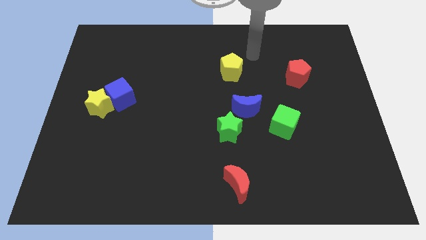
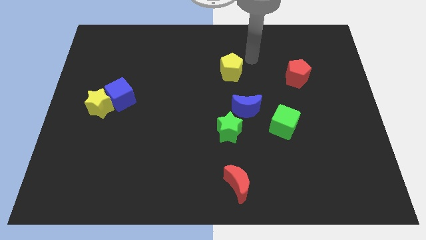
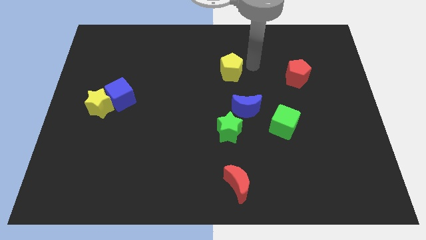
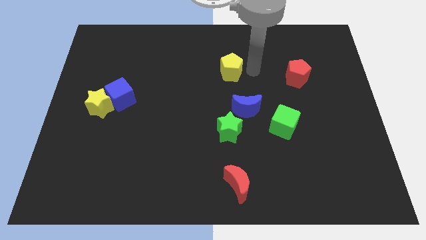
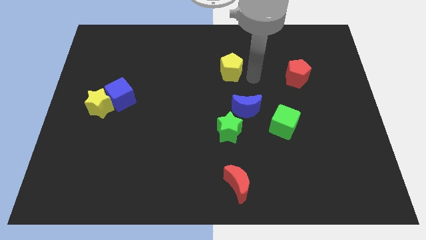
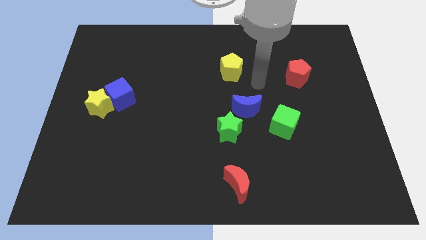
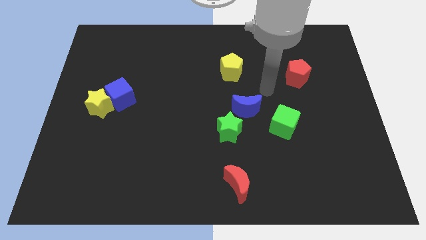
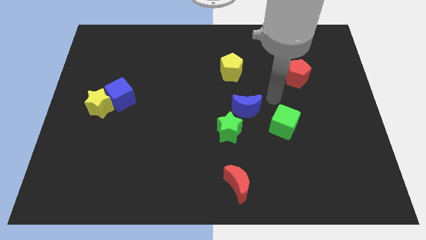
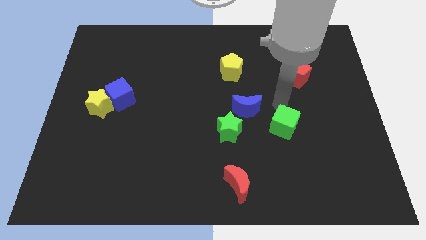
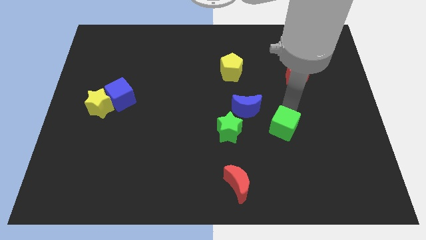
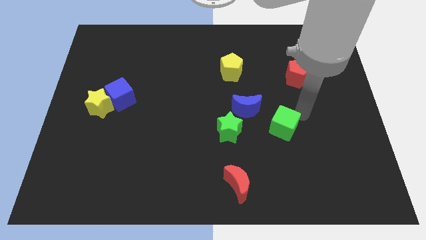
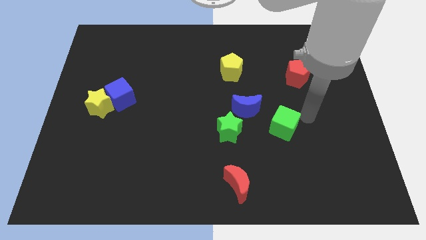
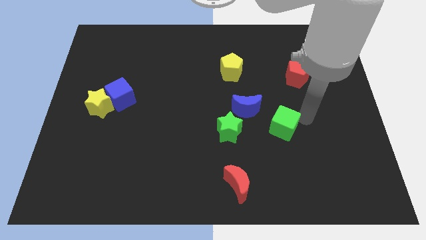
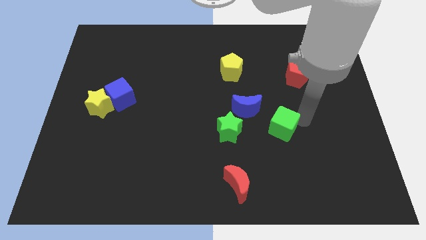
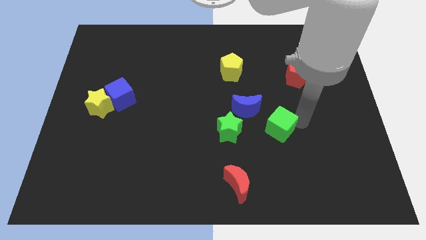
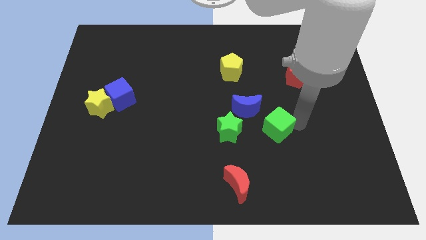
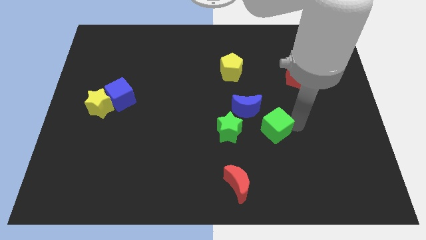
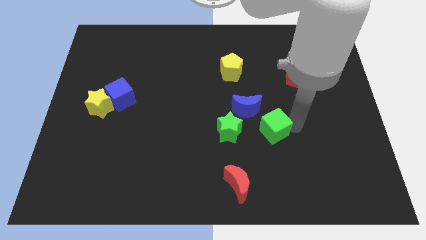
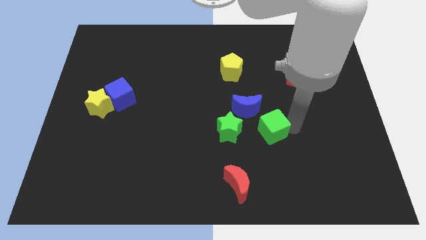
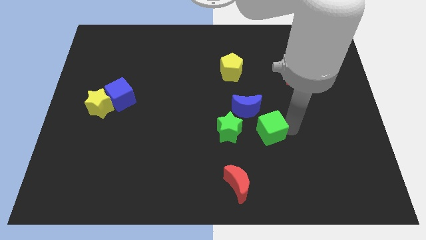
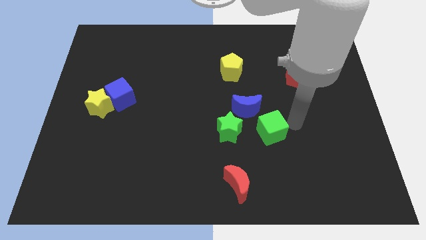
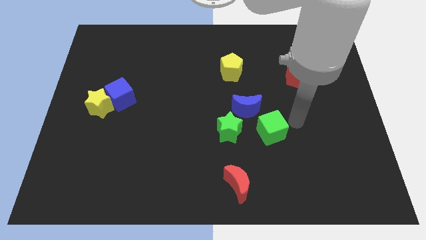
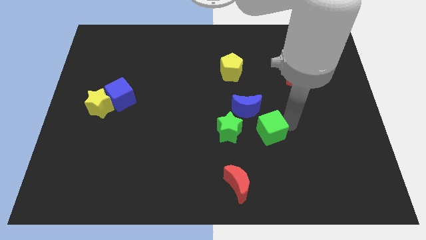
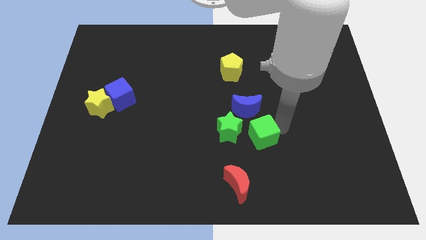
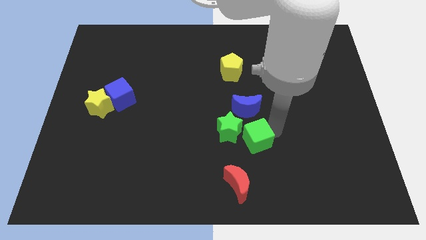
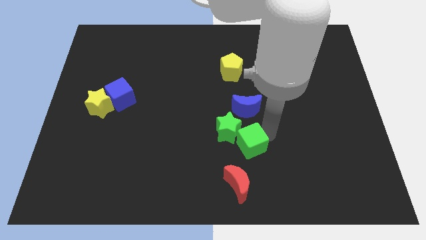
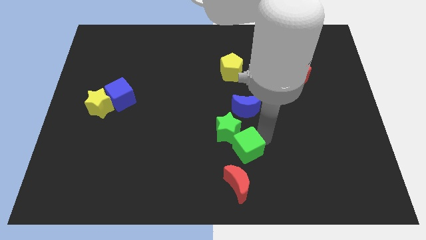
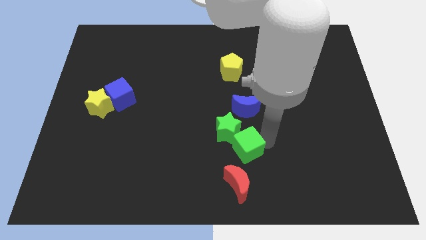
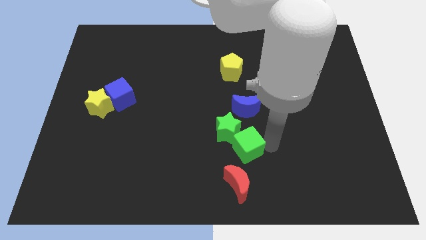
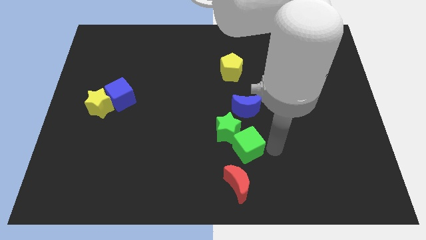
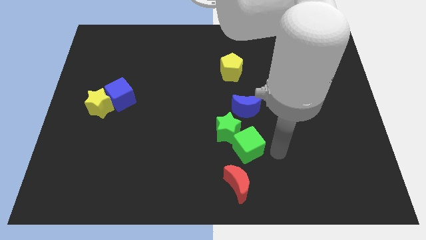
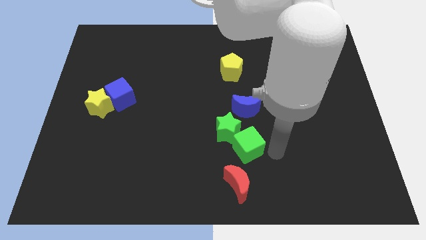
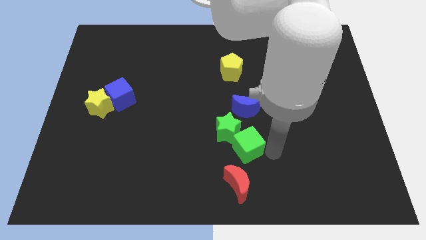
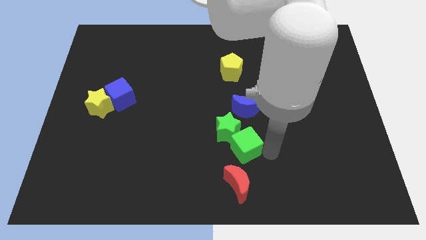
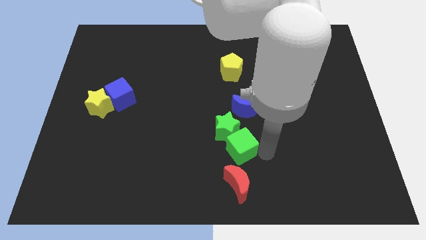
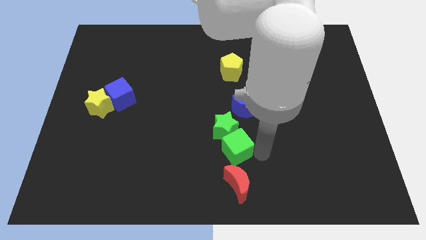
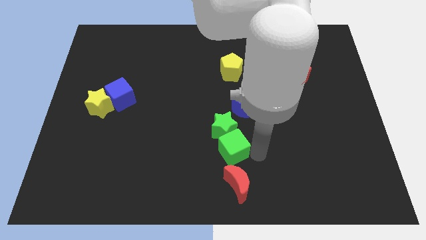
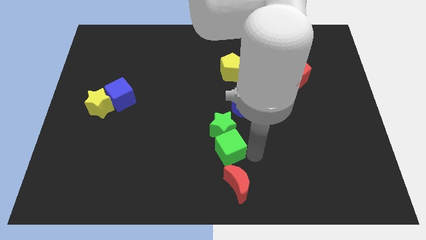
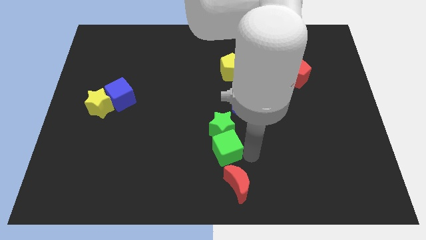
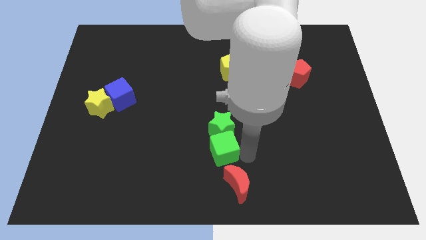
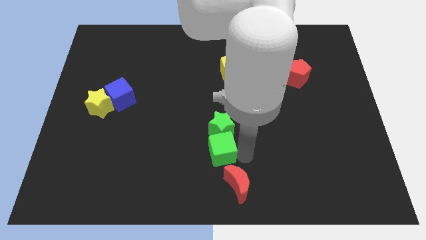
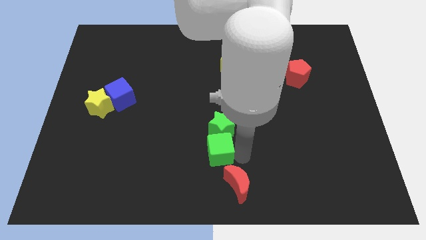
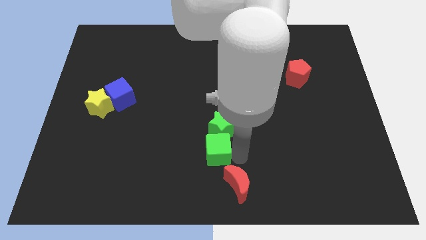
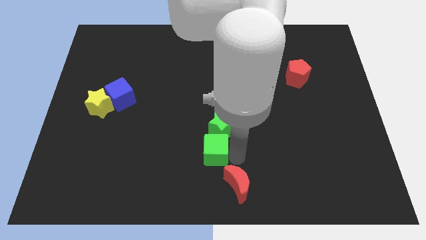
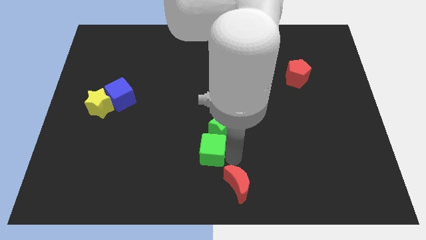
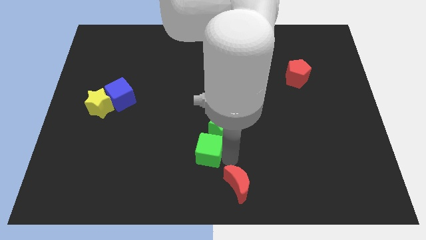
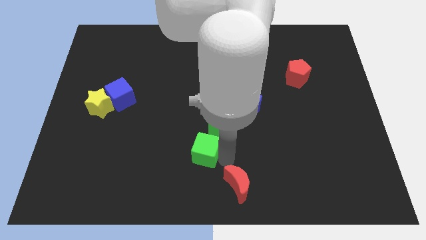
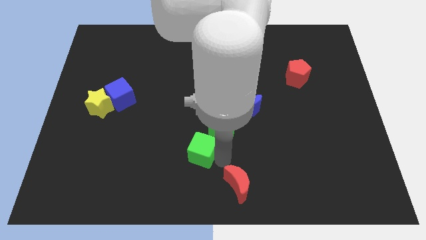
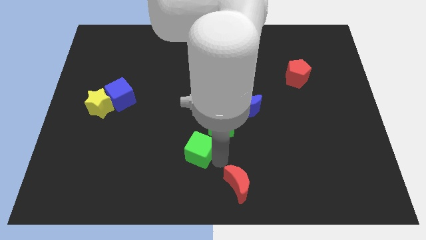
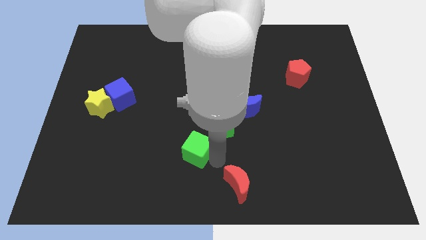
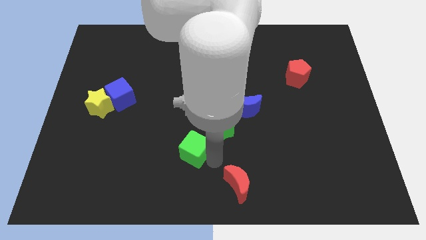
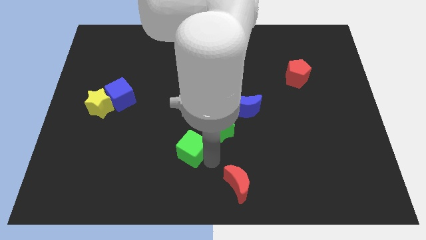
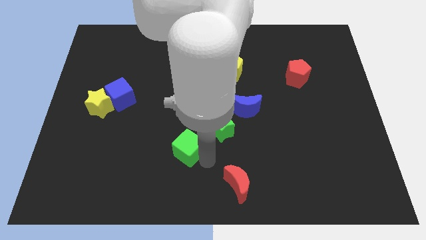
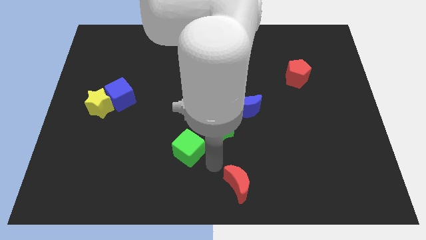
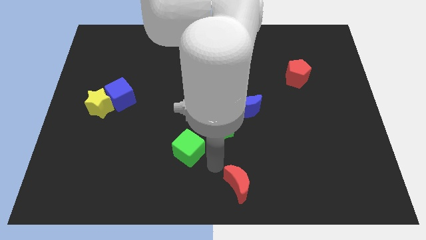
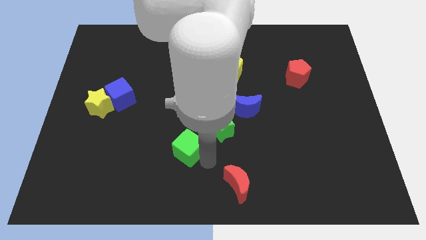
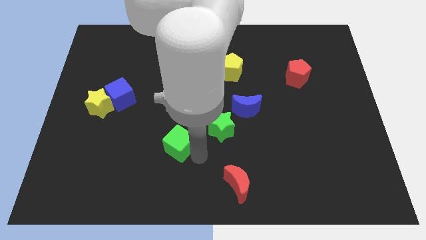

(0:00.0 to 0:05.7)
push the green cube to the left

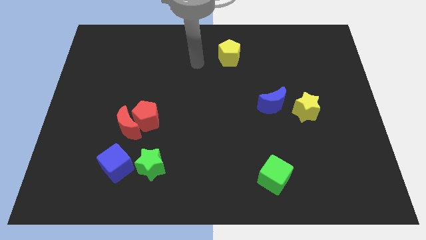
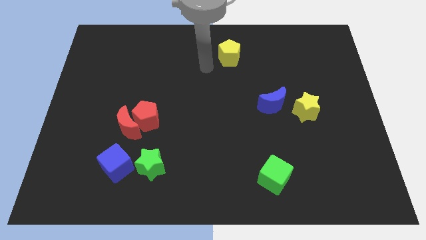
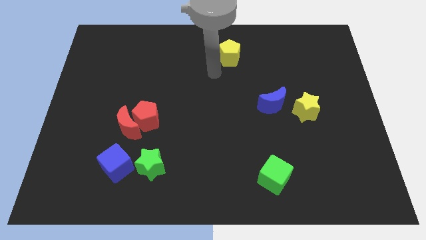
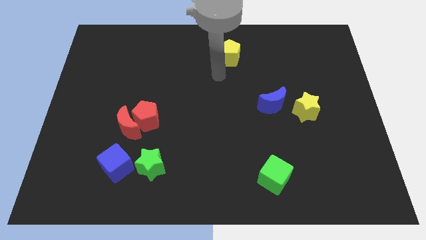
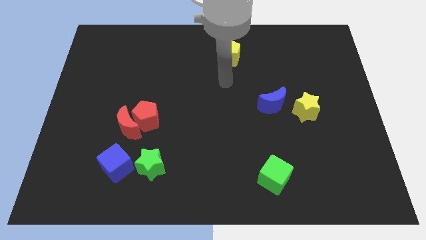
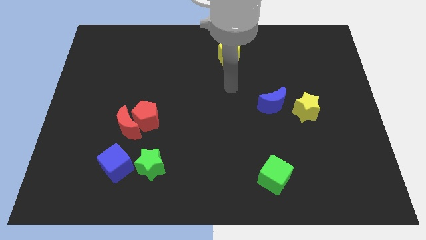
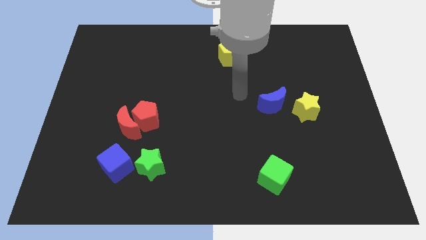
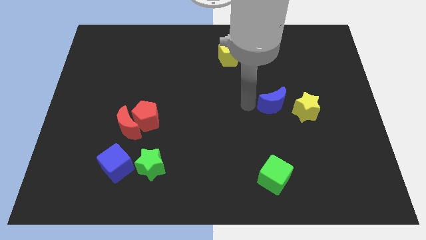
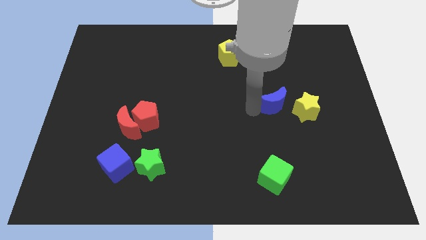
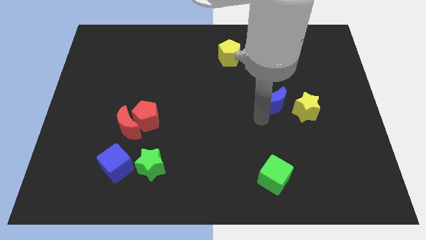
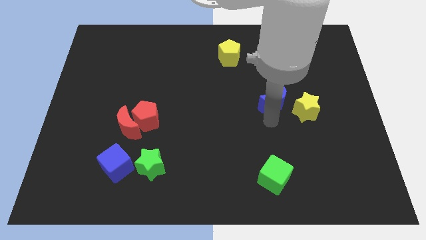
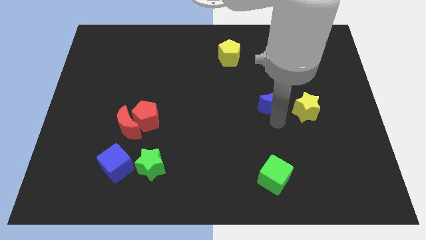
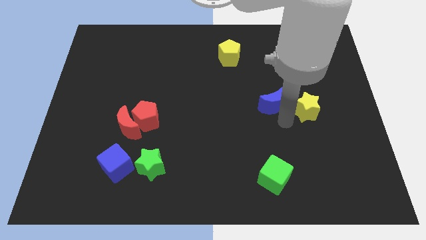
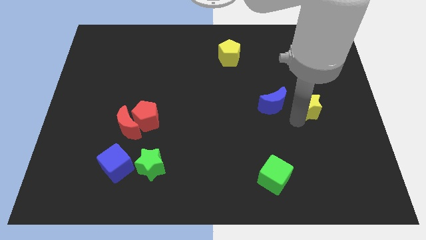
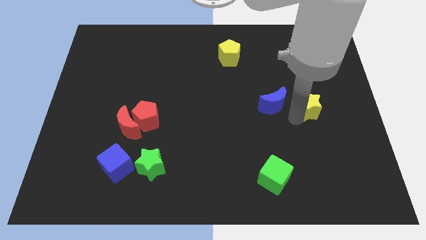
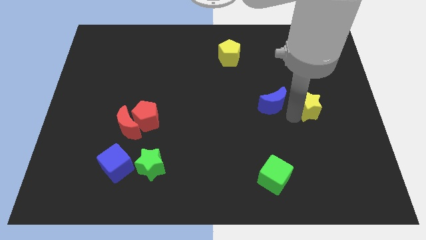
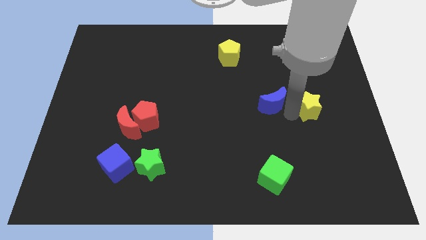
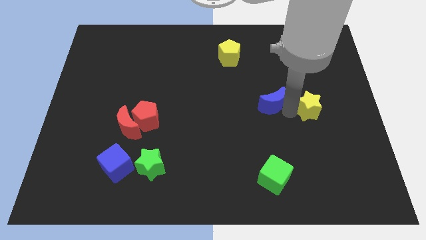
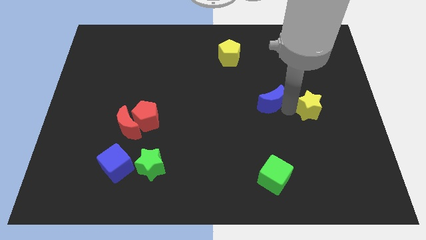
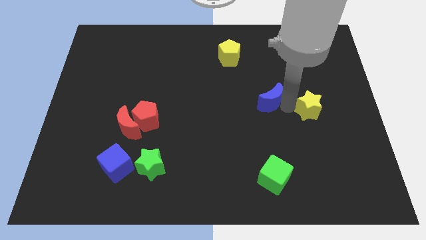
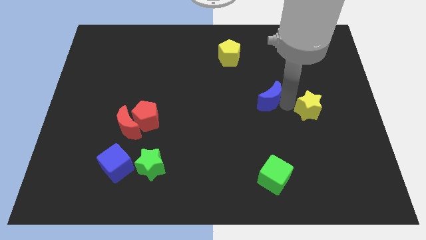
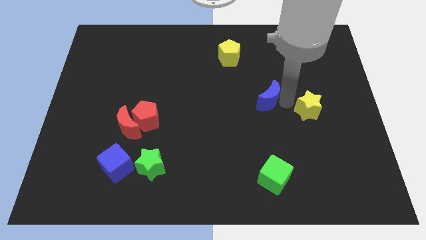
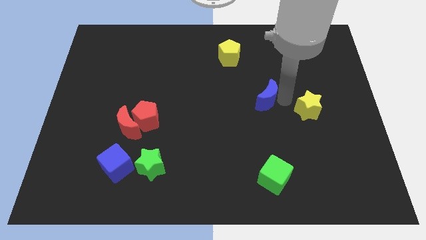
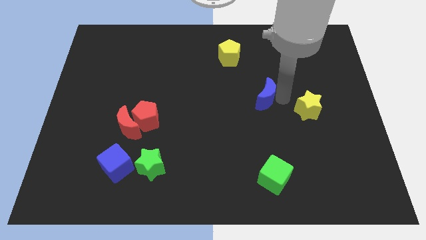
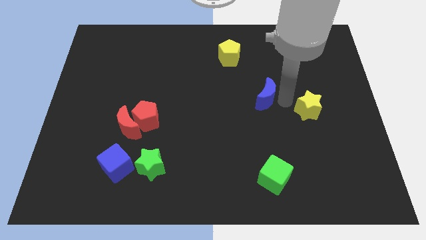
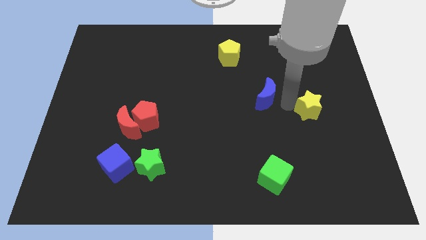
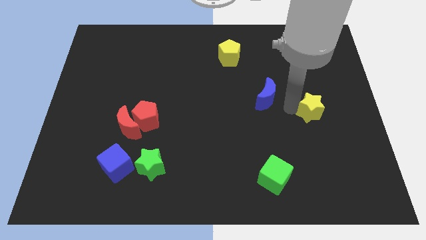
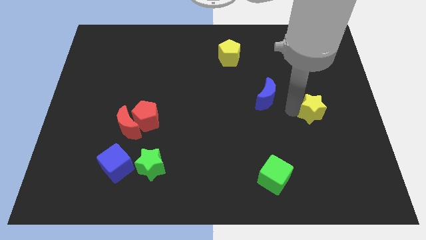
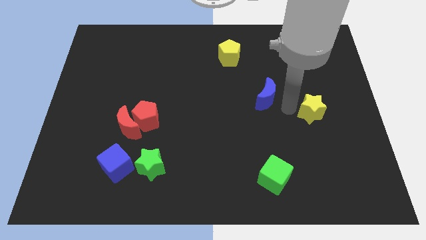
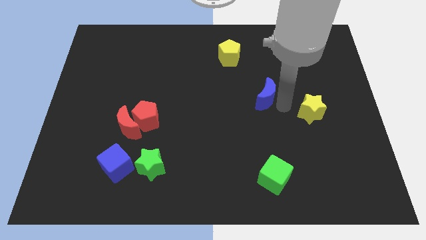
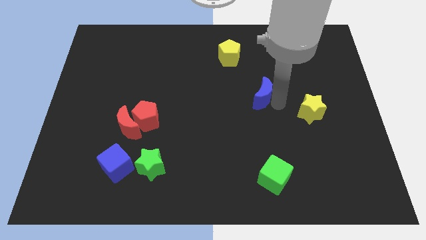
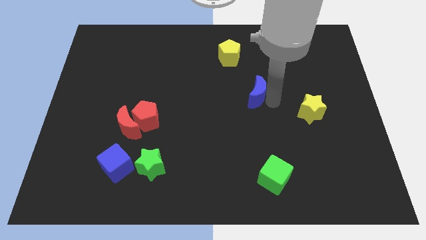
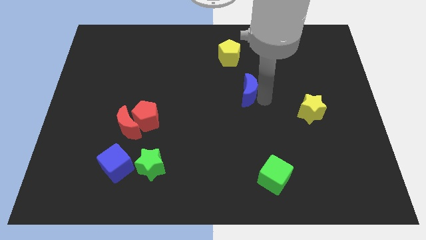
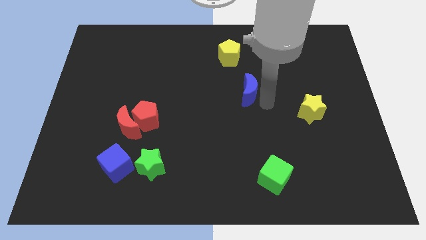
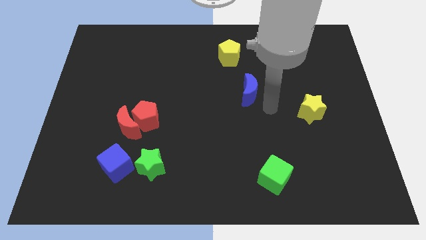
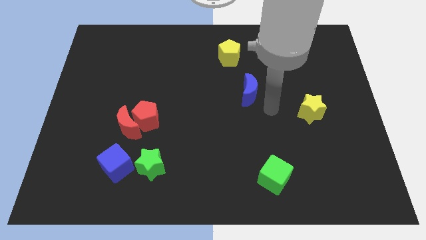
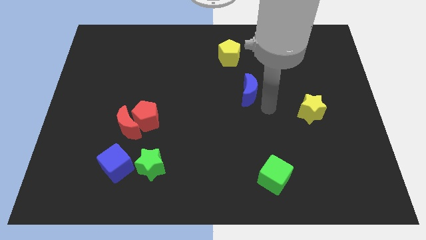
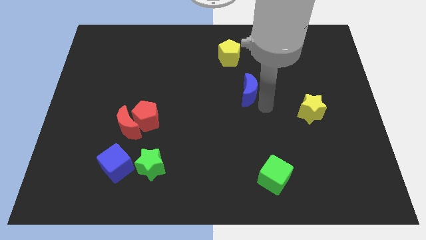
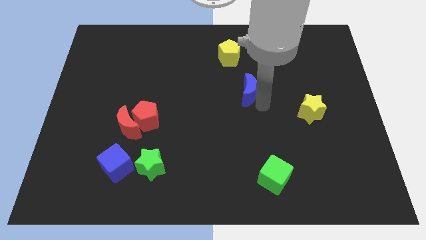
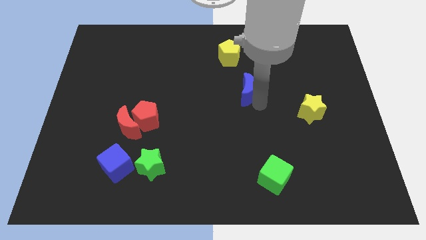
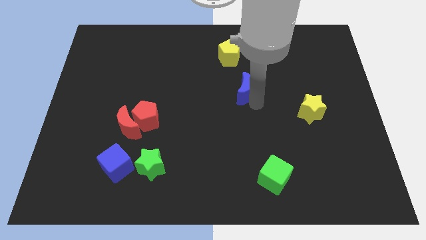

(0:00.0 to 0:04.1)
move the blue moon upwards and then to the left a little
